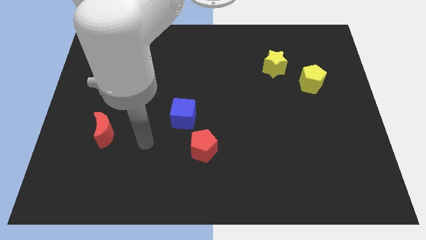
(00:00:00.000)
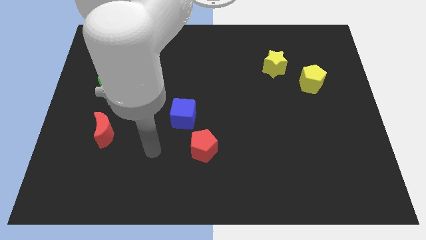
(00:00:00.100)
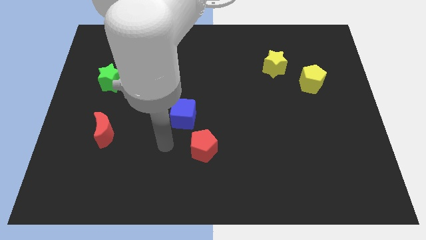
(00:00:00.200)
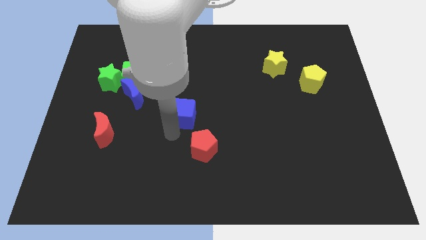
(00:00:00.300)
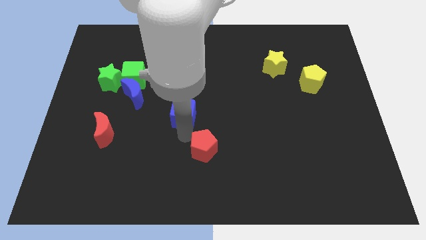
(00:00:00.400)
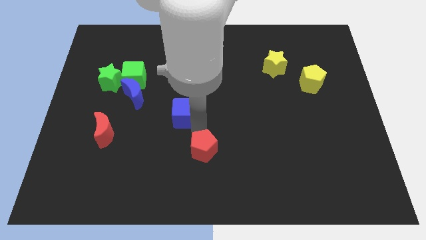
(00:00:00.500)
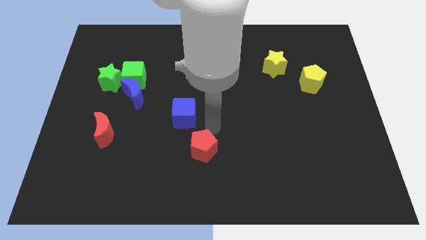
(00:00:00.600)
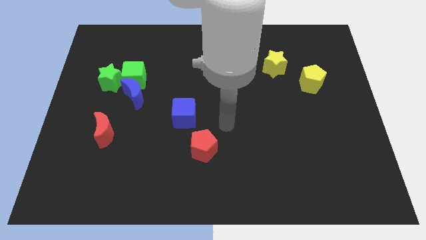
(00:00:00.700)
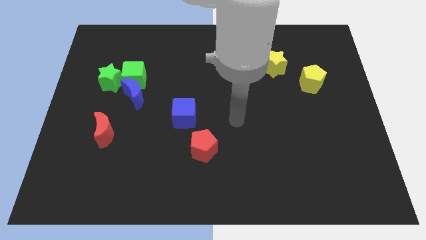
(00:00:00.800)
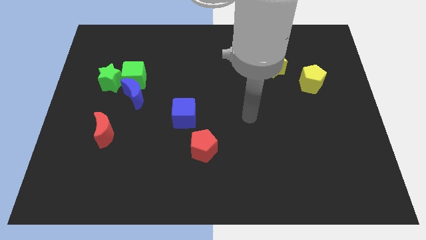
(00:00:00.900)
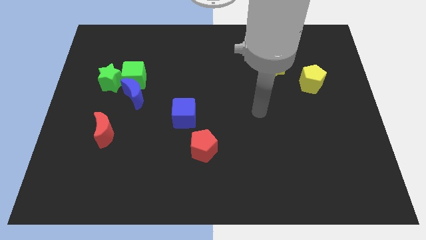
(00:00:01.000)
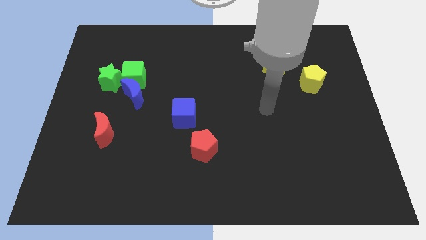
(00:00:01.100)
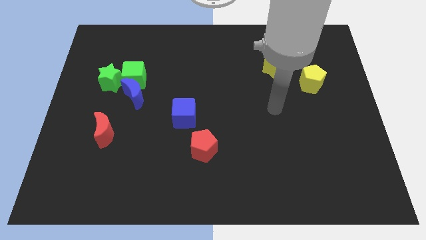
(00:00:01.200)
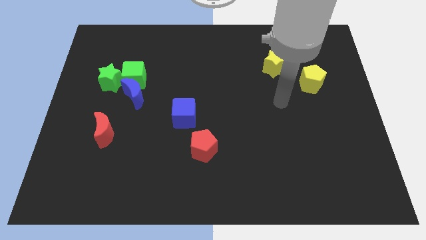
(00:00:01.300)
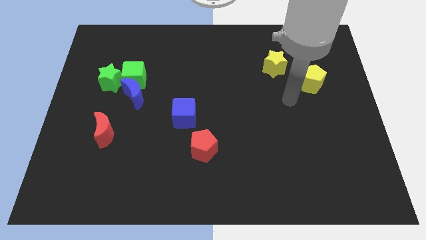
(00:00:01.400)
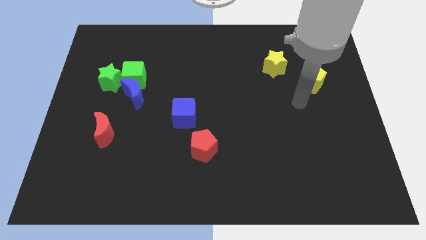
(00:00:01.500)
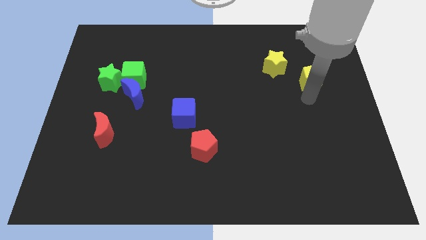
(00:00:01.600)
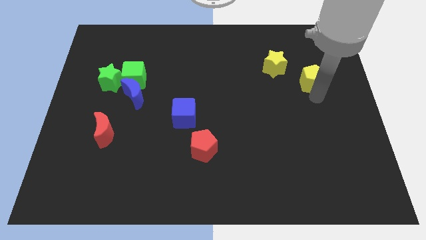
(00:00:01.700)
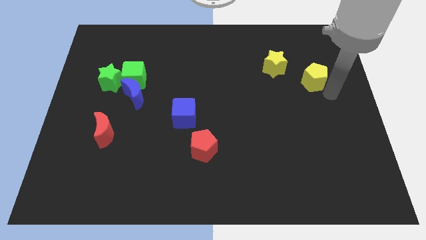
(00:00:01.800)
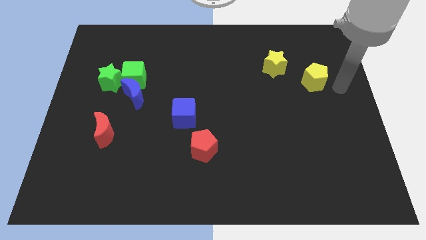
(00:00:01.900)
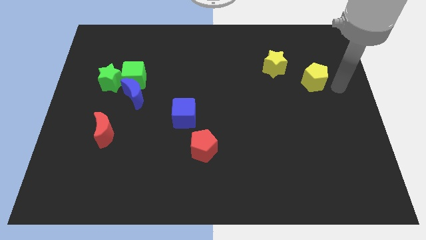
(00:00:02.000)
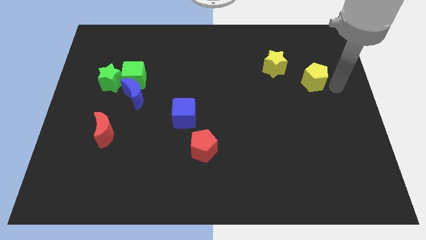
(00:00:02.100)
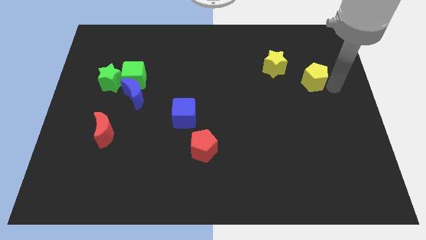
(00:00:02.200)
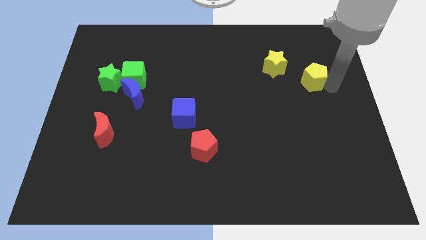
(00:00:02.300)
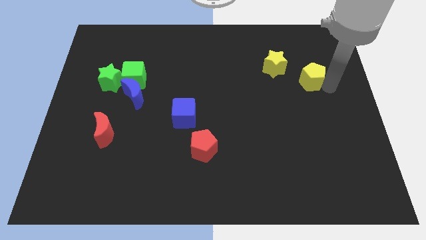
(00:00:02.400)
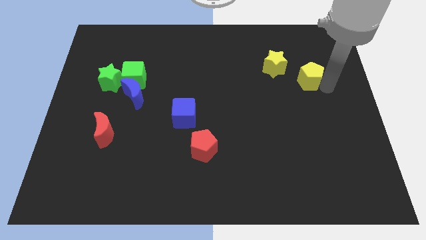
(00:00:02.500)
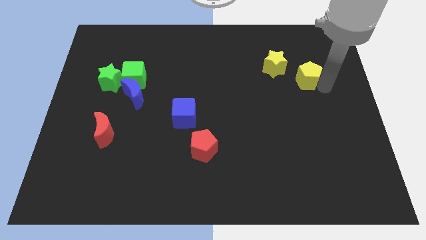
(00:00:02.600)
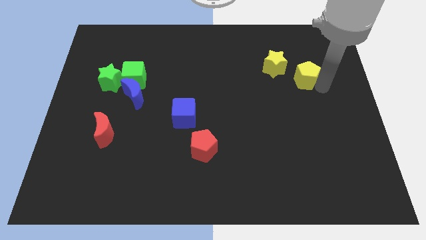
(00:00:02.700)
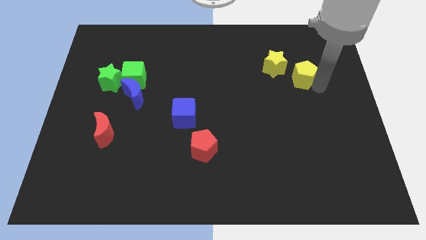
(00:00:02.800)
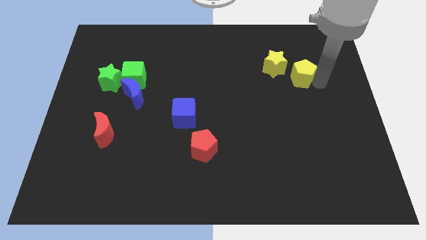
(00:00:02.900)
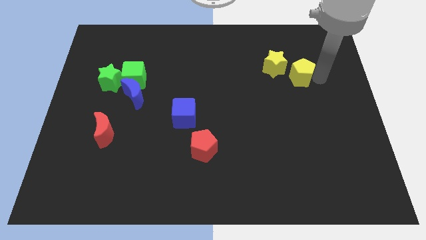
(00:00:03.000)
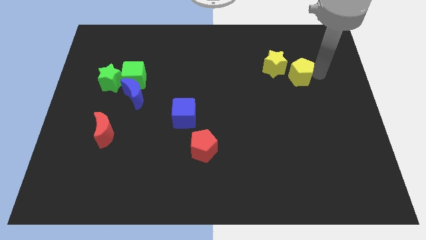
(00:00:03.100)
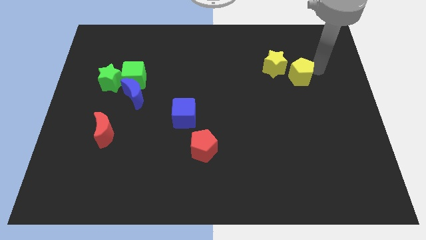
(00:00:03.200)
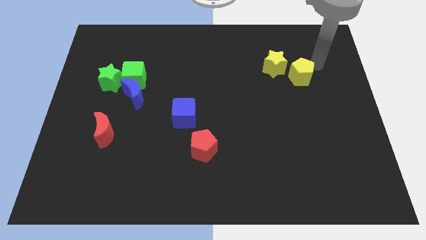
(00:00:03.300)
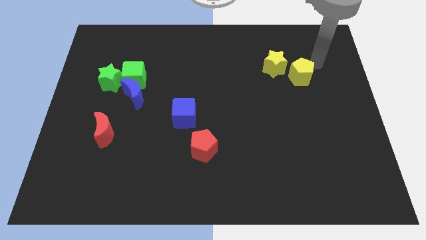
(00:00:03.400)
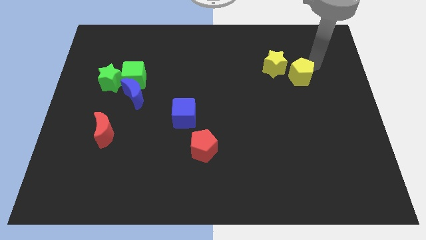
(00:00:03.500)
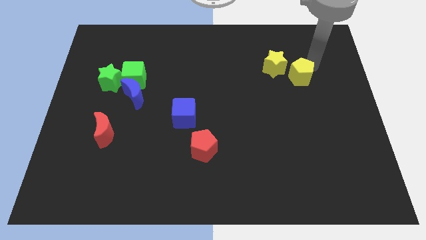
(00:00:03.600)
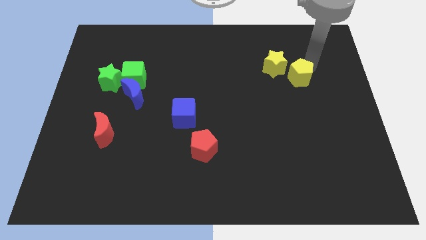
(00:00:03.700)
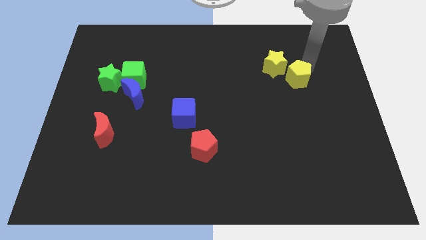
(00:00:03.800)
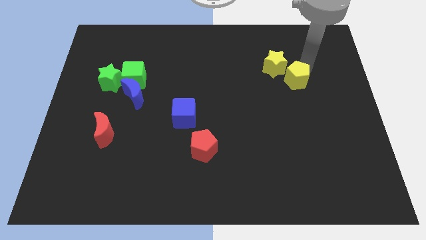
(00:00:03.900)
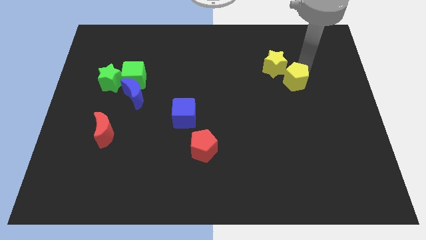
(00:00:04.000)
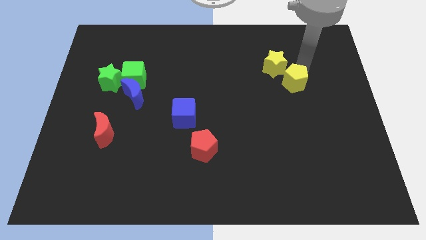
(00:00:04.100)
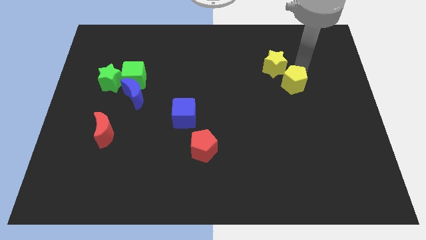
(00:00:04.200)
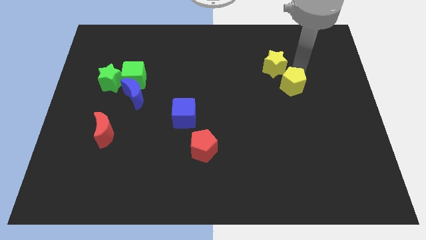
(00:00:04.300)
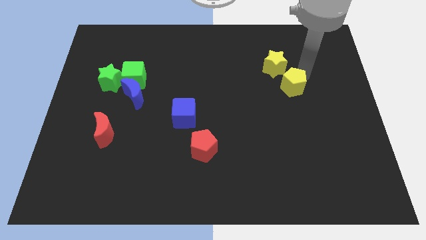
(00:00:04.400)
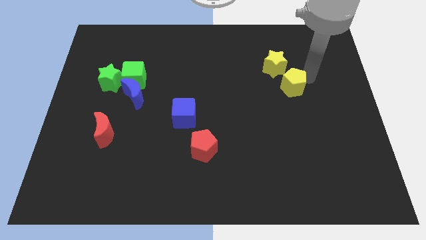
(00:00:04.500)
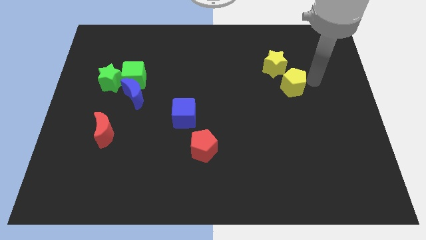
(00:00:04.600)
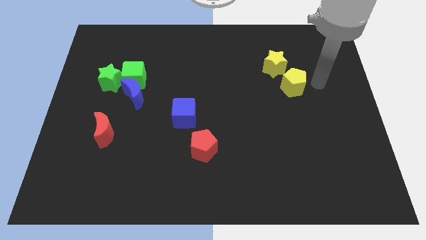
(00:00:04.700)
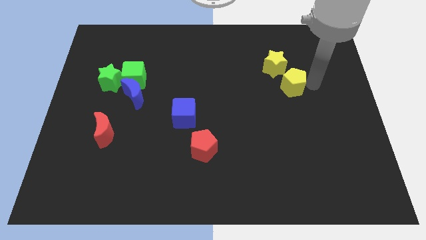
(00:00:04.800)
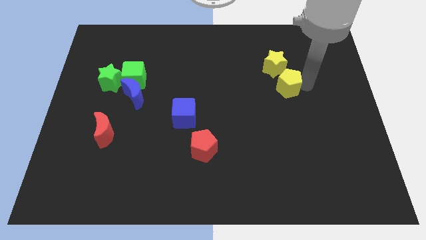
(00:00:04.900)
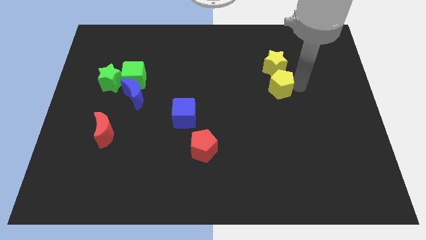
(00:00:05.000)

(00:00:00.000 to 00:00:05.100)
slide the yellow pentagon a little bit left

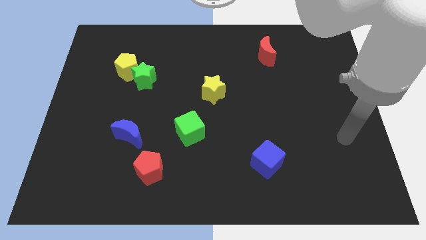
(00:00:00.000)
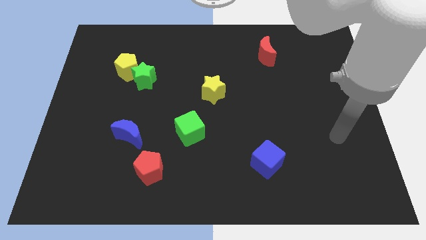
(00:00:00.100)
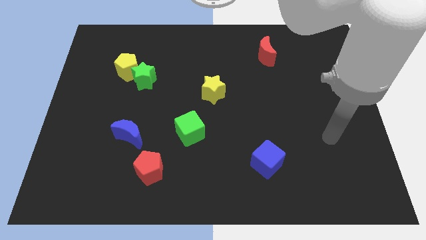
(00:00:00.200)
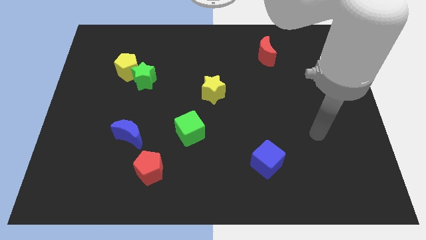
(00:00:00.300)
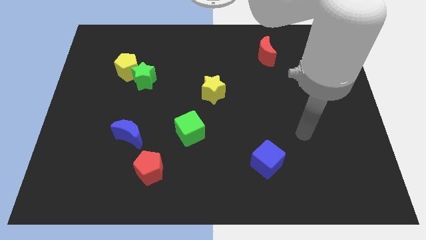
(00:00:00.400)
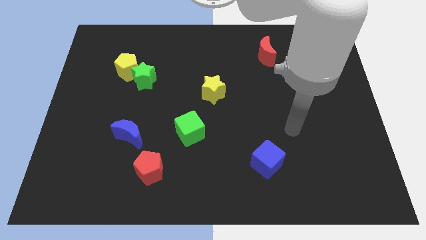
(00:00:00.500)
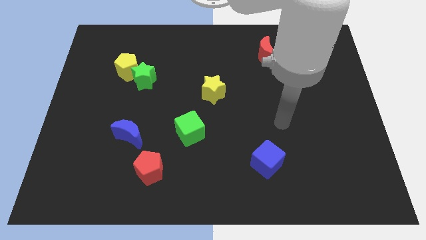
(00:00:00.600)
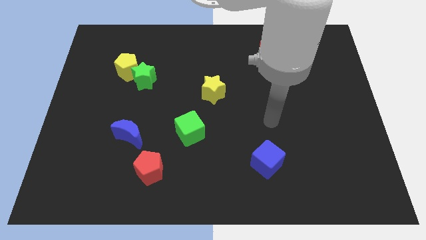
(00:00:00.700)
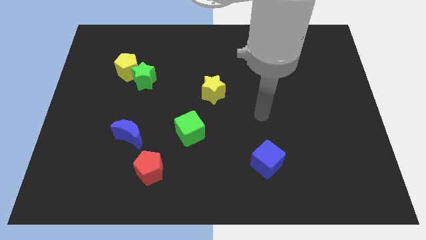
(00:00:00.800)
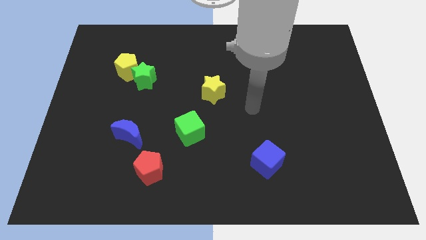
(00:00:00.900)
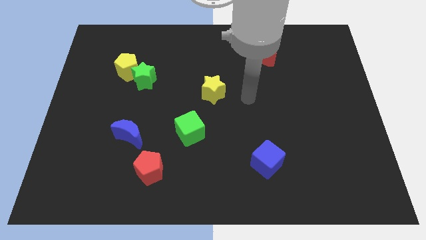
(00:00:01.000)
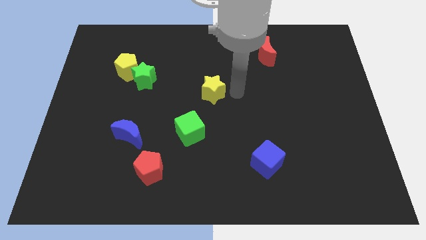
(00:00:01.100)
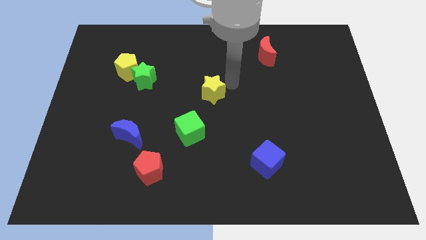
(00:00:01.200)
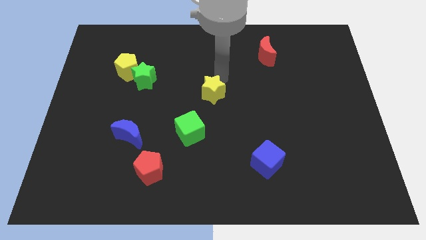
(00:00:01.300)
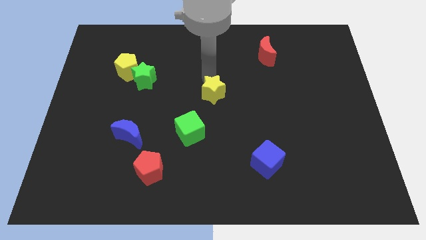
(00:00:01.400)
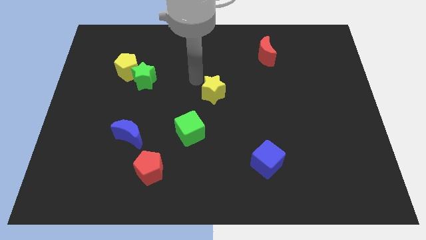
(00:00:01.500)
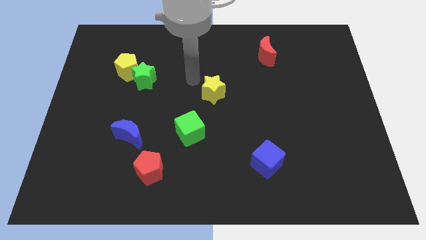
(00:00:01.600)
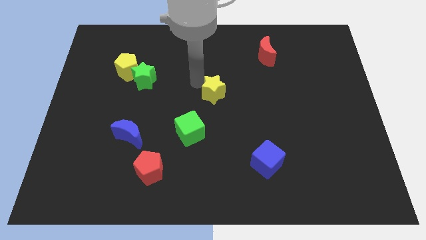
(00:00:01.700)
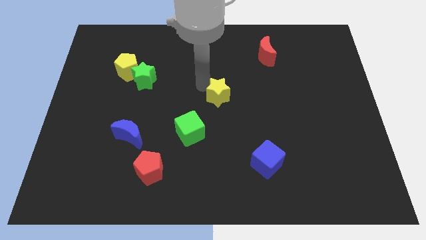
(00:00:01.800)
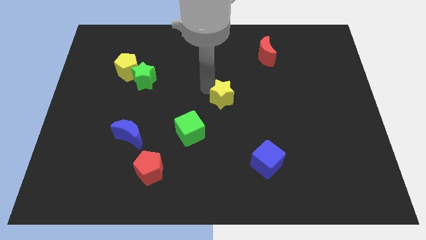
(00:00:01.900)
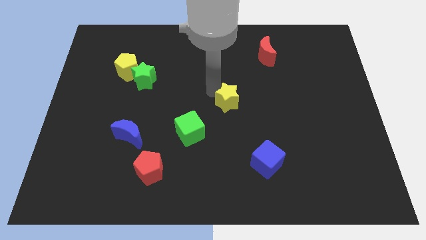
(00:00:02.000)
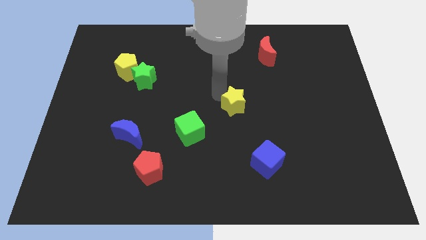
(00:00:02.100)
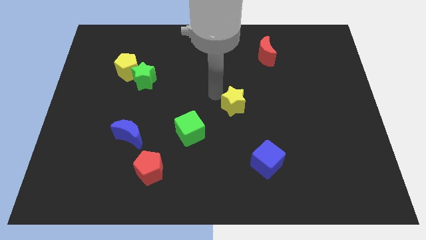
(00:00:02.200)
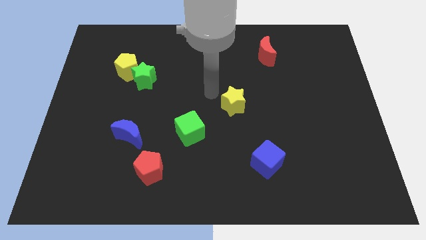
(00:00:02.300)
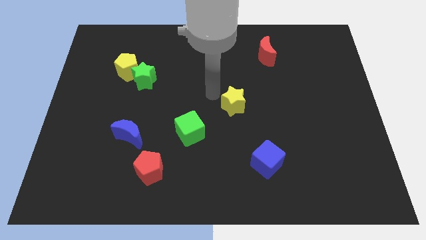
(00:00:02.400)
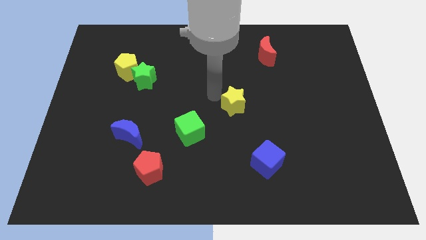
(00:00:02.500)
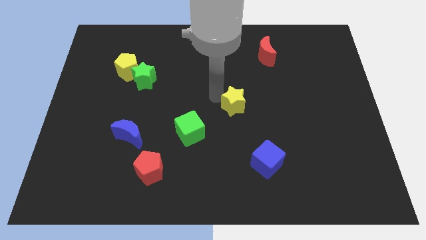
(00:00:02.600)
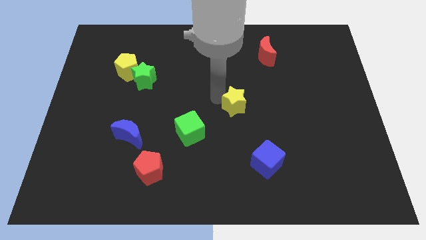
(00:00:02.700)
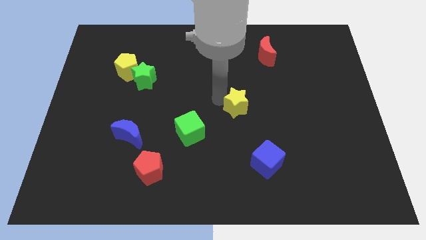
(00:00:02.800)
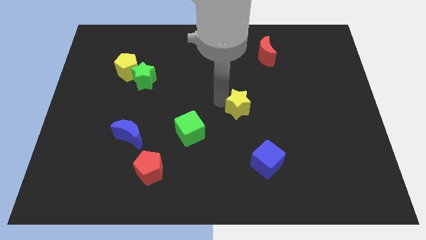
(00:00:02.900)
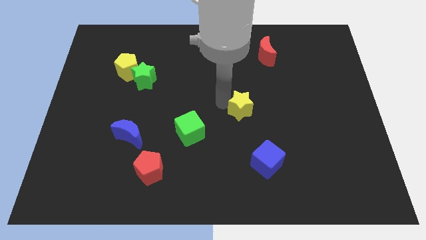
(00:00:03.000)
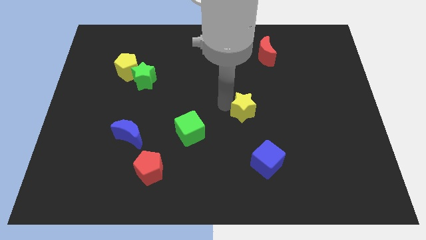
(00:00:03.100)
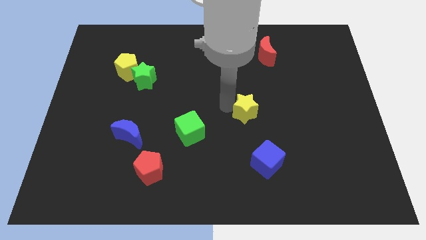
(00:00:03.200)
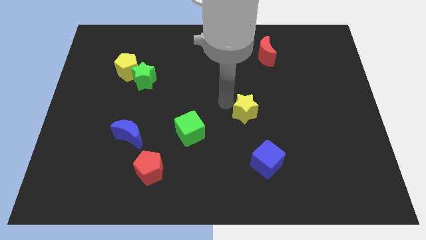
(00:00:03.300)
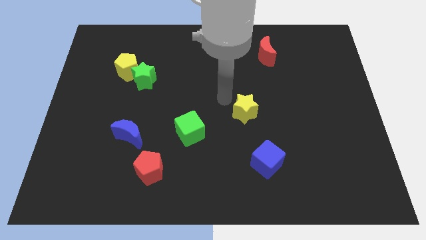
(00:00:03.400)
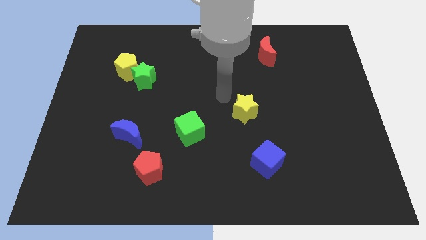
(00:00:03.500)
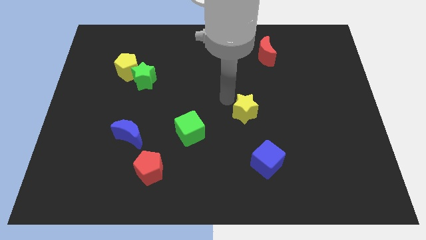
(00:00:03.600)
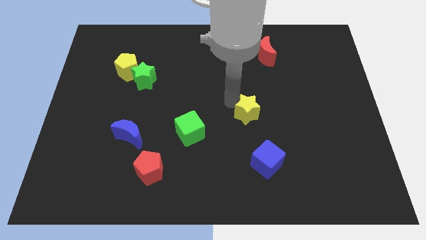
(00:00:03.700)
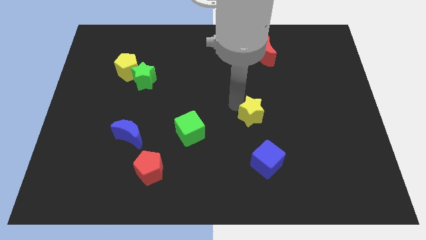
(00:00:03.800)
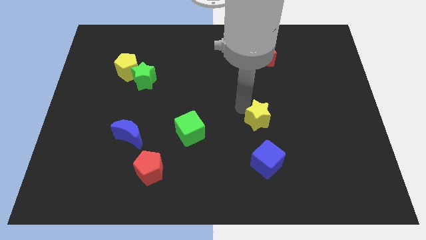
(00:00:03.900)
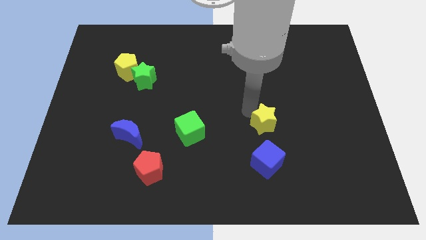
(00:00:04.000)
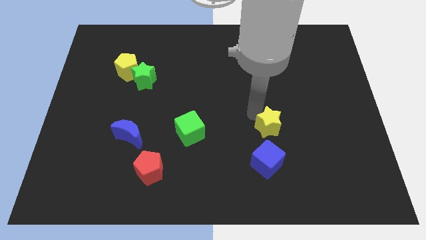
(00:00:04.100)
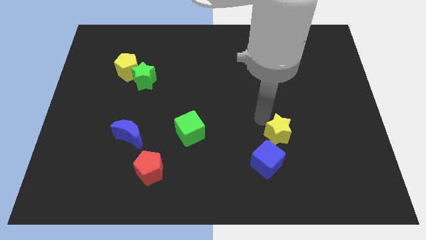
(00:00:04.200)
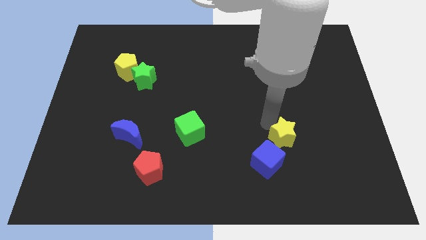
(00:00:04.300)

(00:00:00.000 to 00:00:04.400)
slide the yellow star downwards and right
